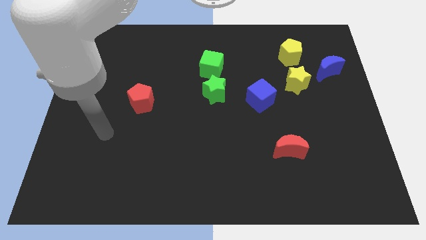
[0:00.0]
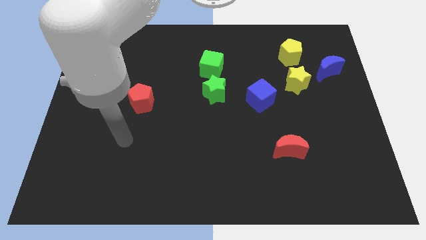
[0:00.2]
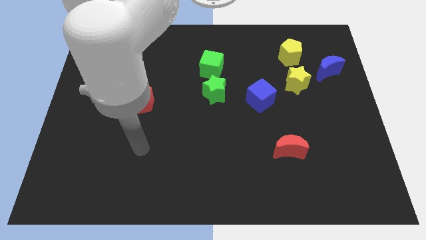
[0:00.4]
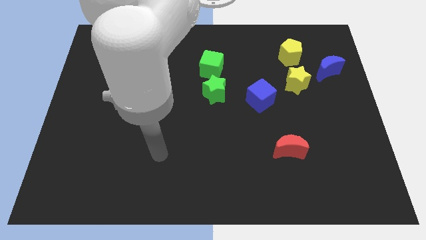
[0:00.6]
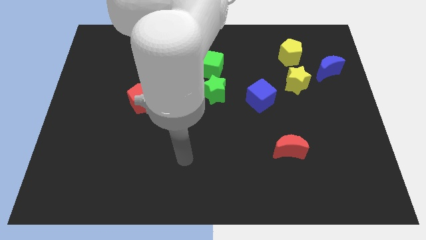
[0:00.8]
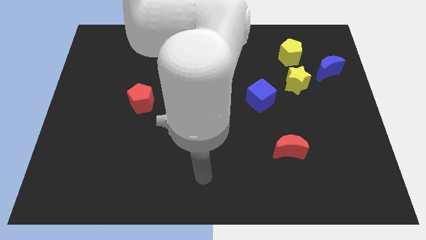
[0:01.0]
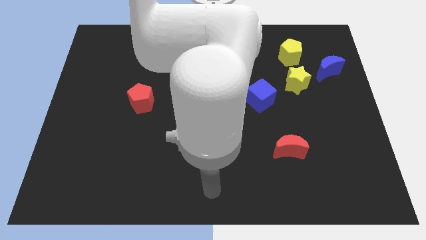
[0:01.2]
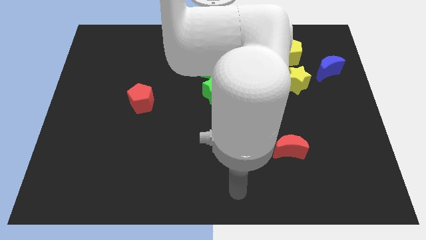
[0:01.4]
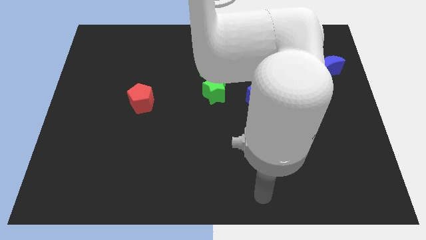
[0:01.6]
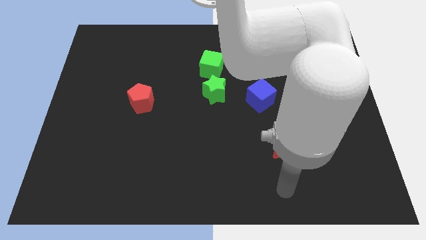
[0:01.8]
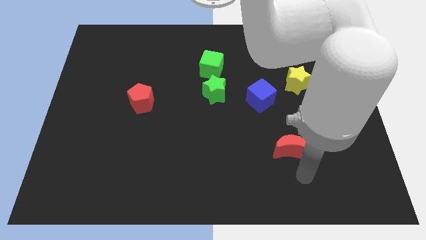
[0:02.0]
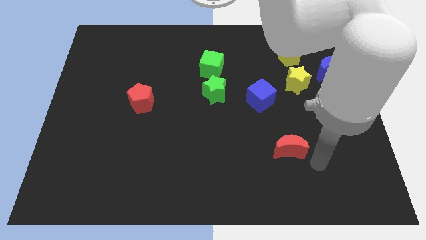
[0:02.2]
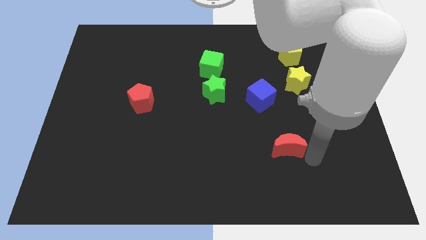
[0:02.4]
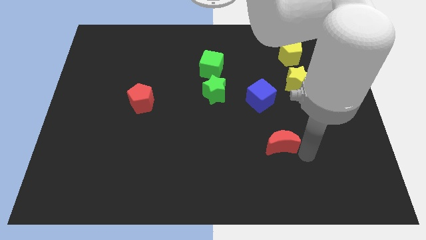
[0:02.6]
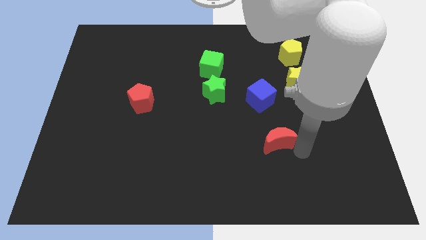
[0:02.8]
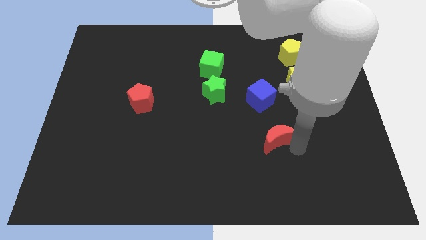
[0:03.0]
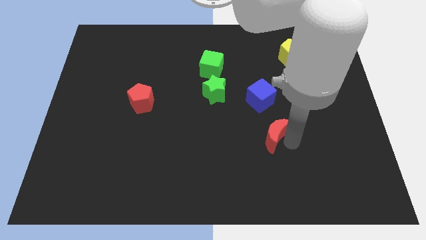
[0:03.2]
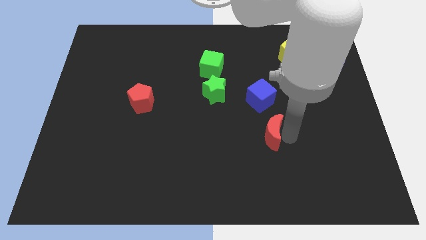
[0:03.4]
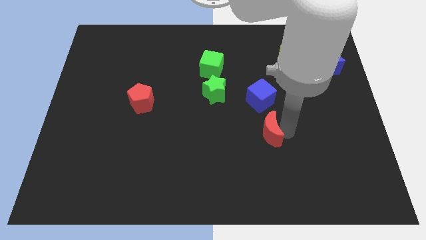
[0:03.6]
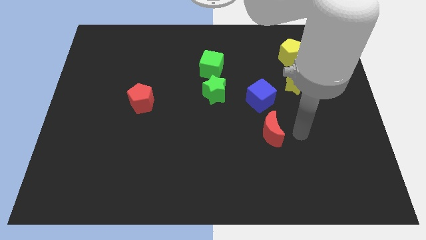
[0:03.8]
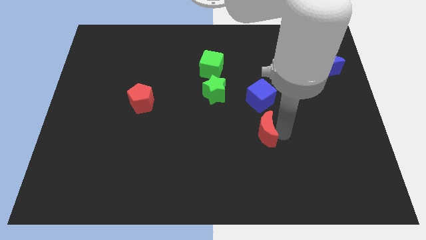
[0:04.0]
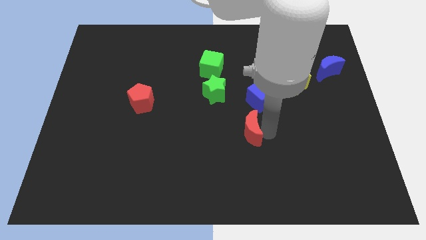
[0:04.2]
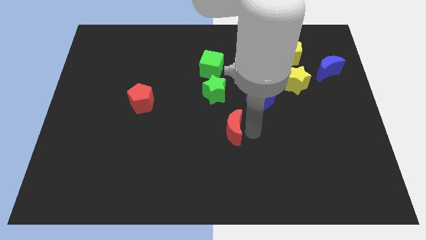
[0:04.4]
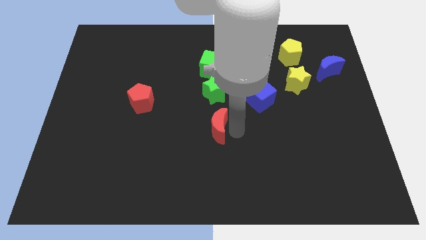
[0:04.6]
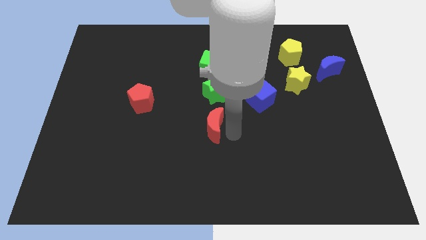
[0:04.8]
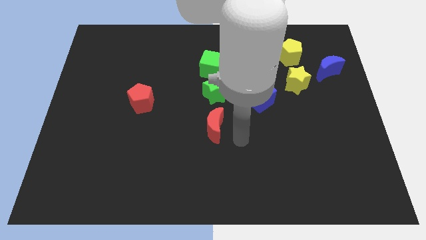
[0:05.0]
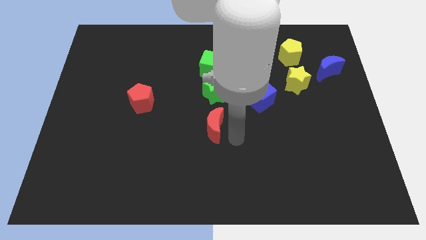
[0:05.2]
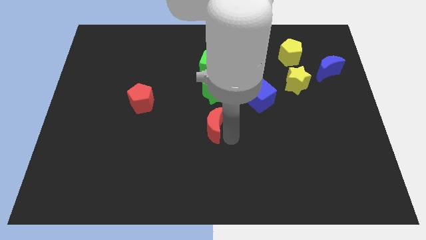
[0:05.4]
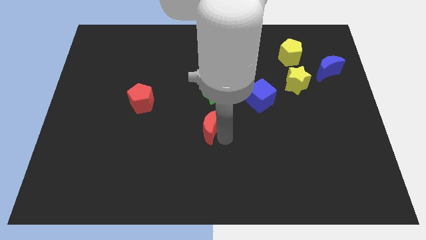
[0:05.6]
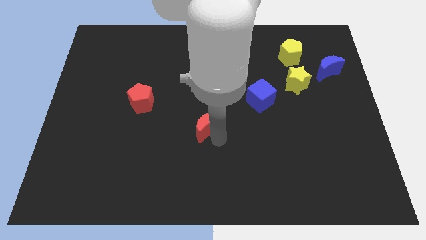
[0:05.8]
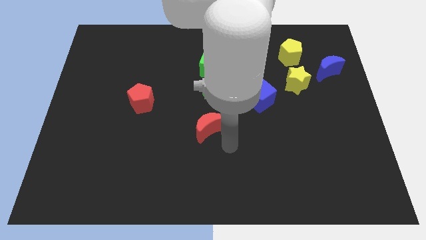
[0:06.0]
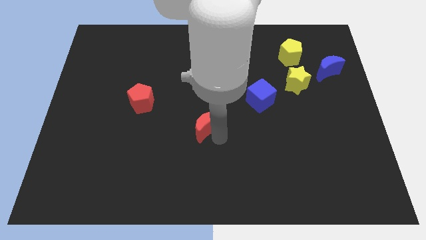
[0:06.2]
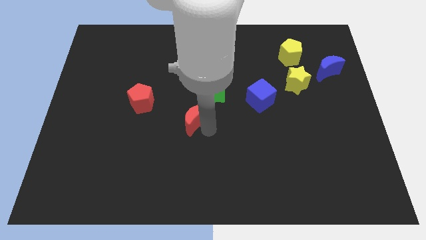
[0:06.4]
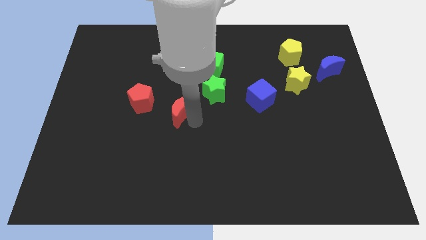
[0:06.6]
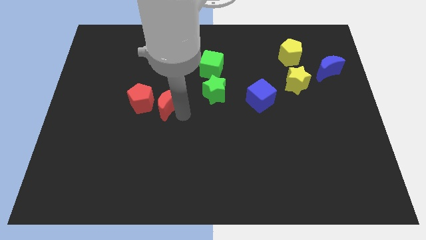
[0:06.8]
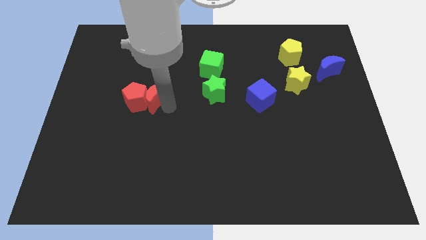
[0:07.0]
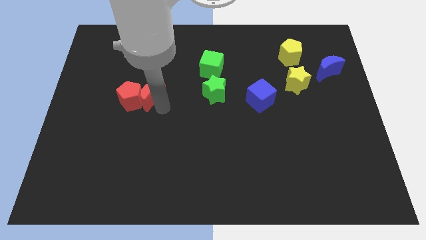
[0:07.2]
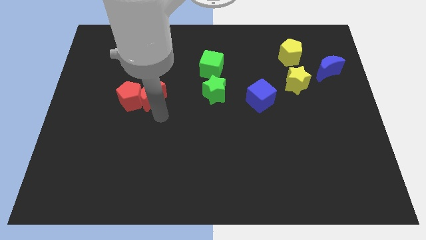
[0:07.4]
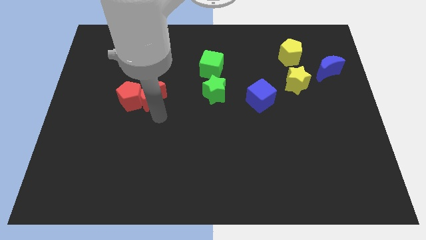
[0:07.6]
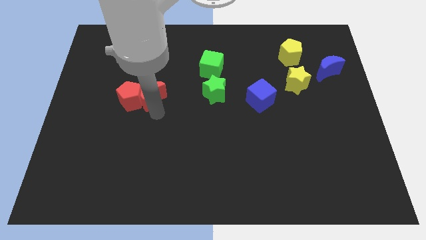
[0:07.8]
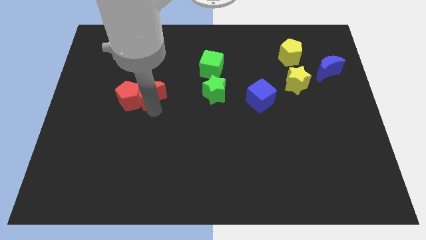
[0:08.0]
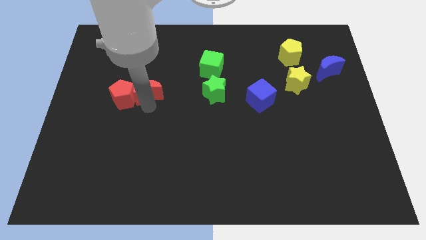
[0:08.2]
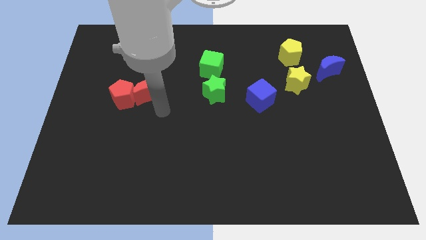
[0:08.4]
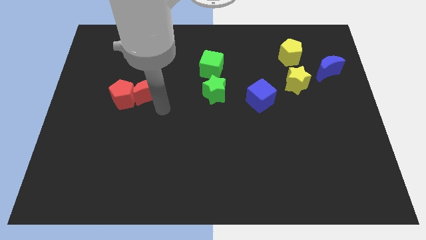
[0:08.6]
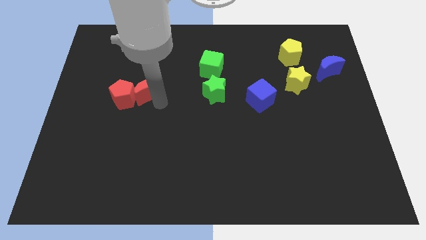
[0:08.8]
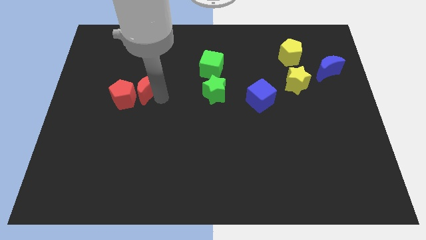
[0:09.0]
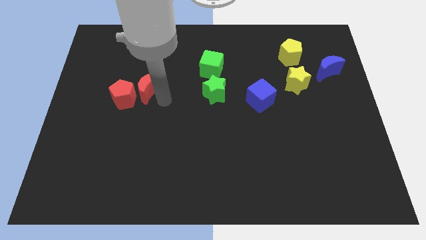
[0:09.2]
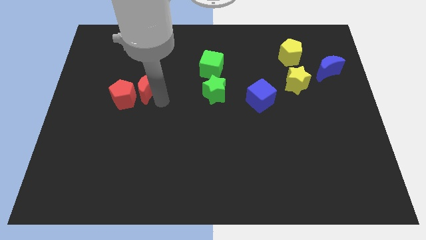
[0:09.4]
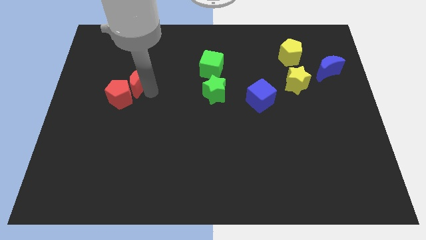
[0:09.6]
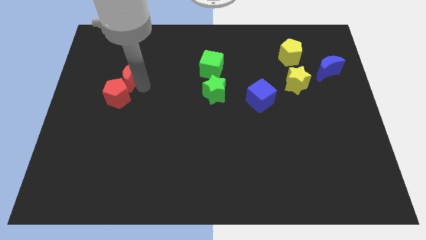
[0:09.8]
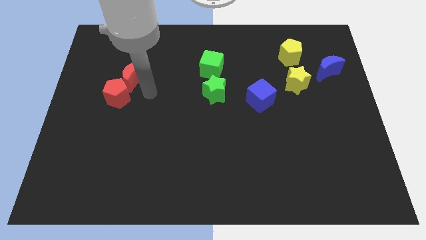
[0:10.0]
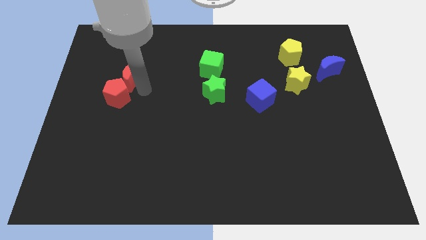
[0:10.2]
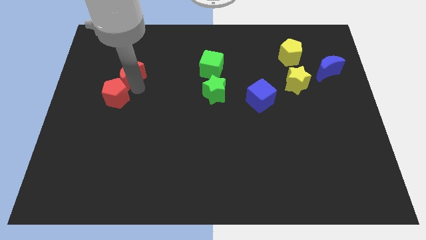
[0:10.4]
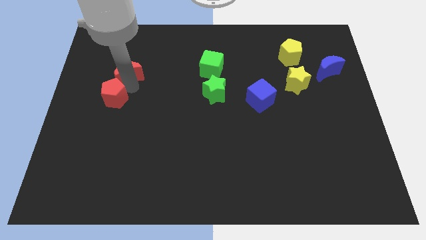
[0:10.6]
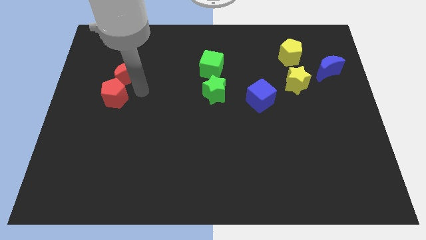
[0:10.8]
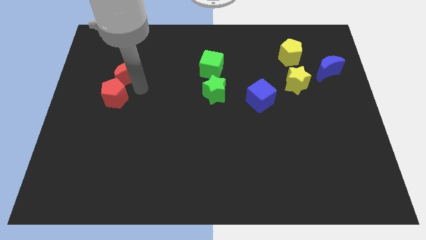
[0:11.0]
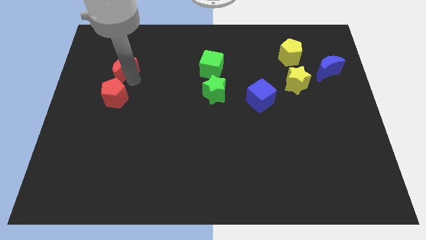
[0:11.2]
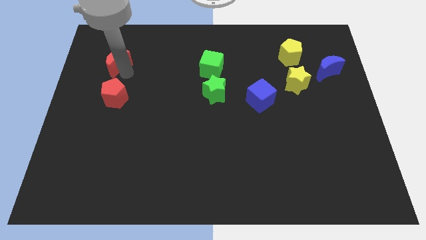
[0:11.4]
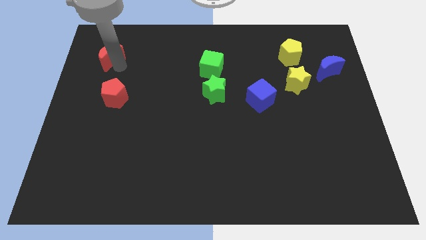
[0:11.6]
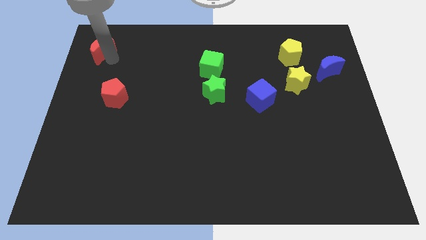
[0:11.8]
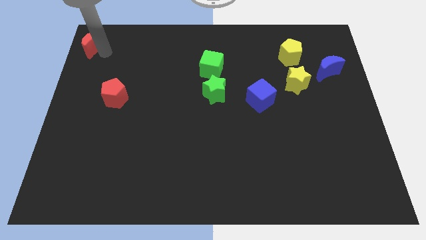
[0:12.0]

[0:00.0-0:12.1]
put the red moon to the top left
